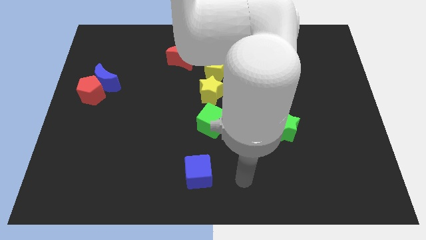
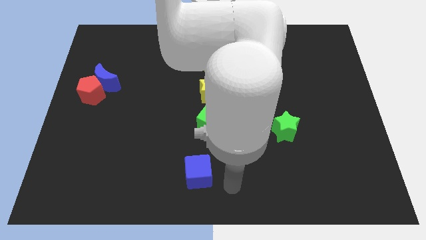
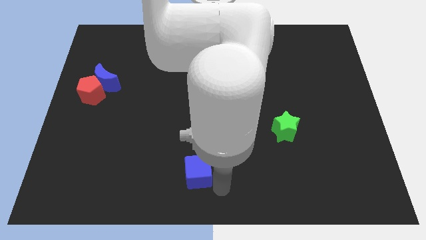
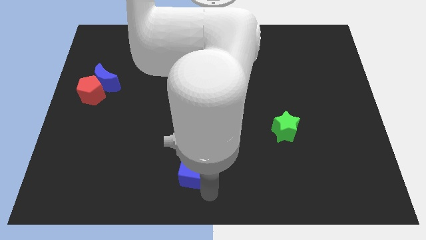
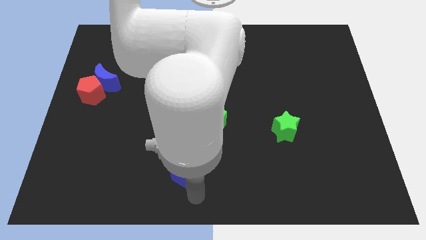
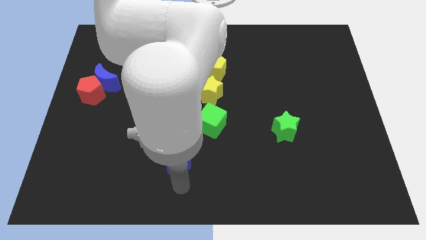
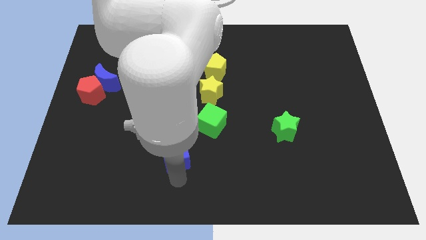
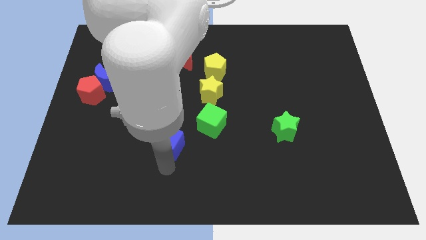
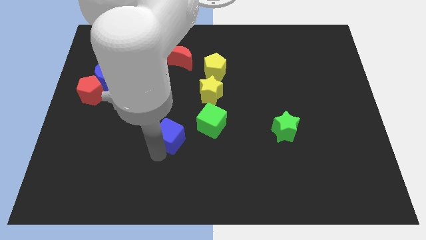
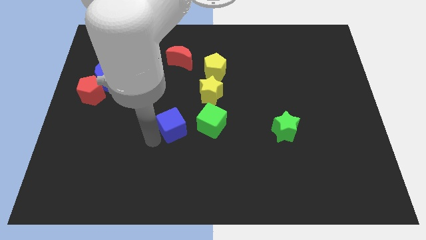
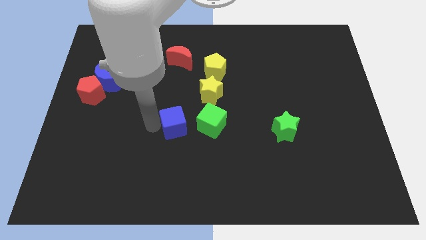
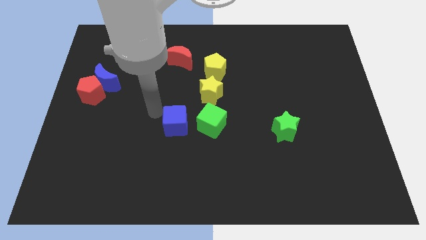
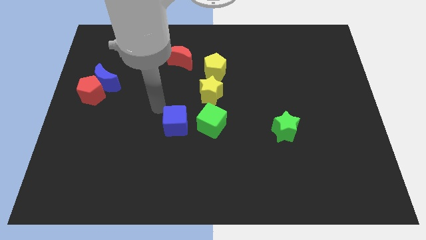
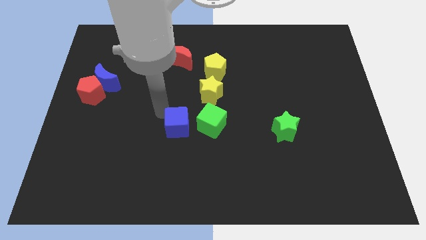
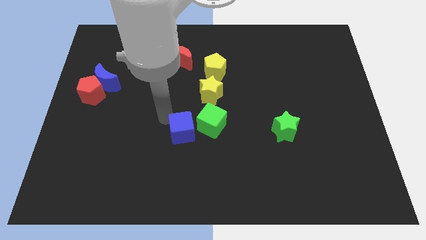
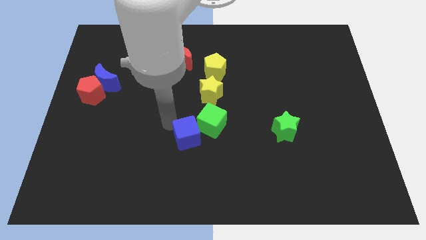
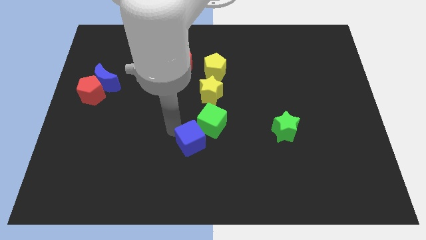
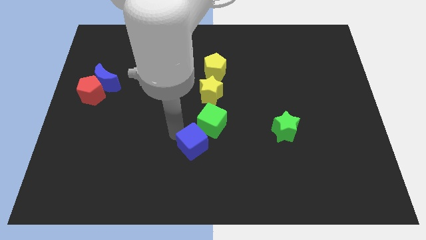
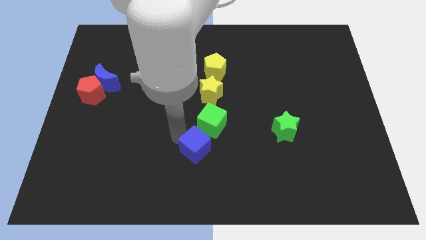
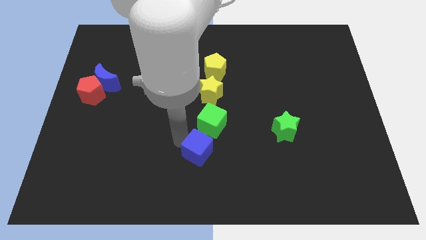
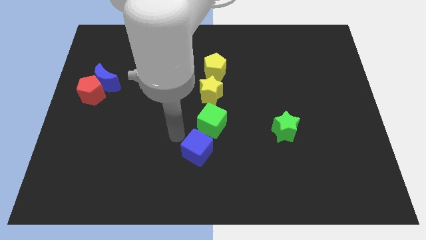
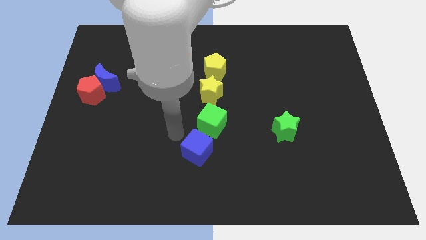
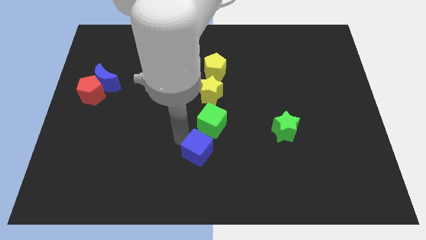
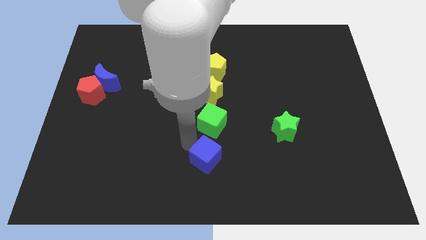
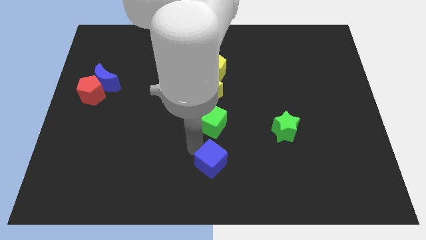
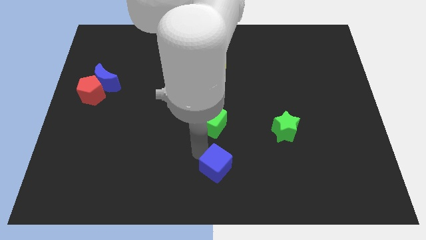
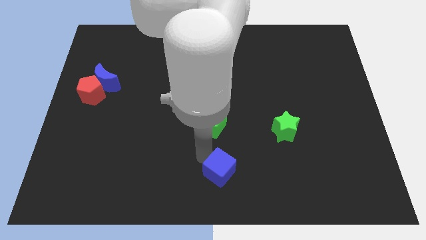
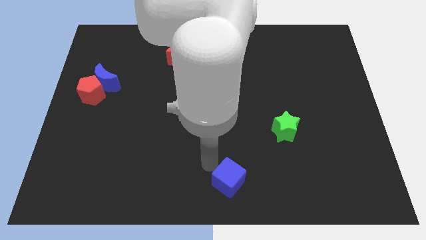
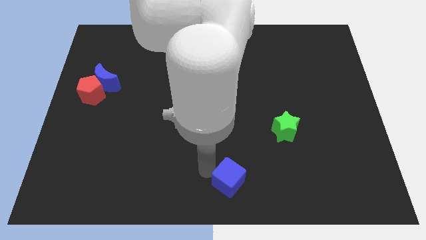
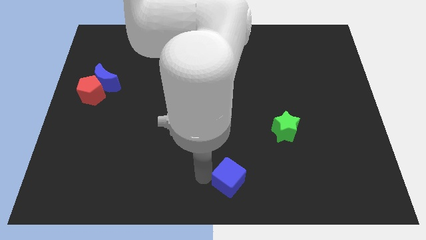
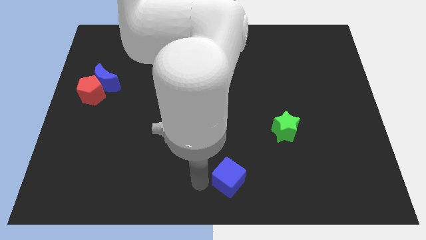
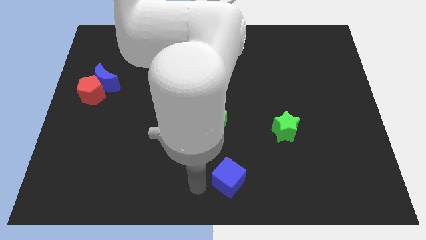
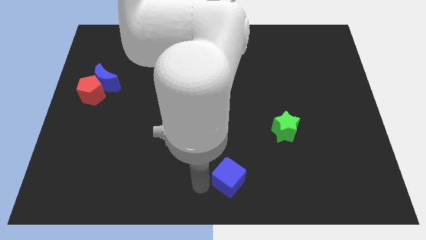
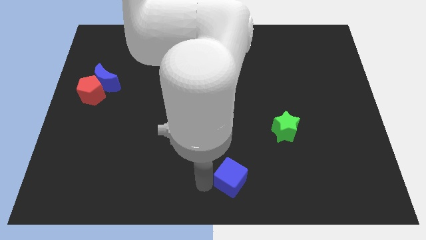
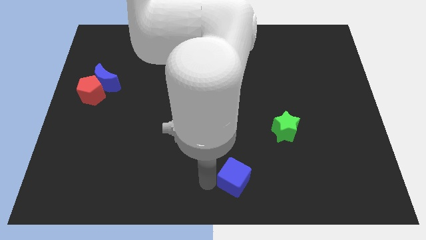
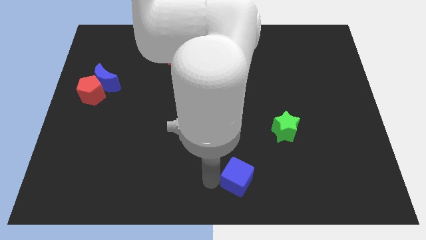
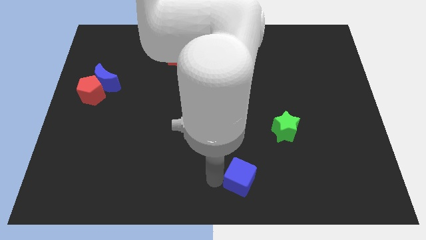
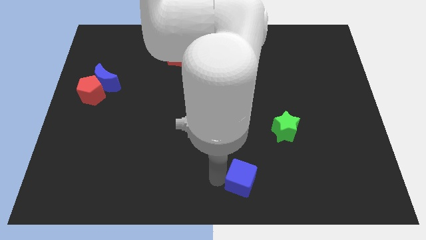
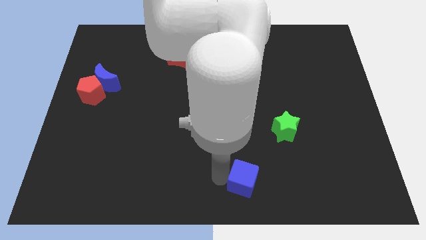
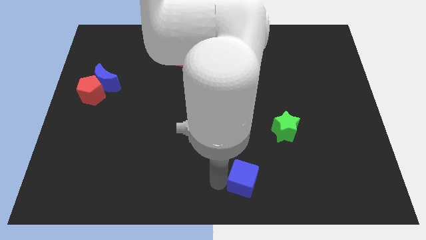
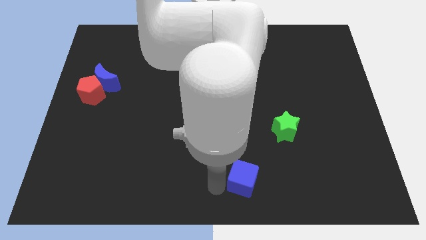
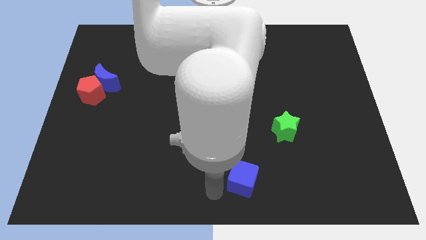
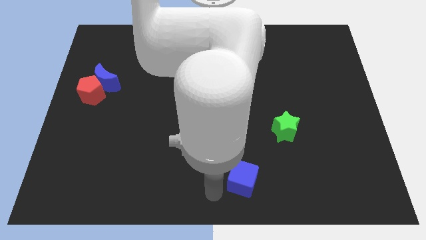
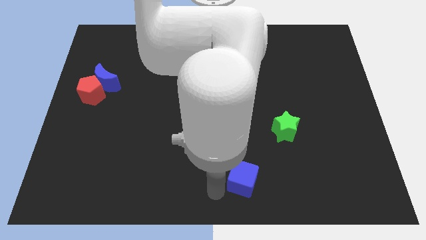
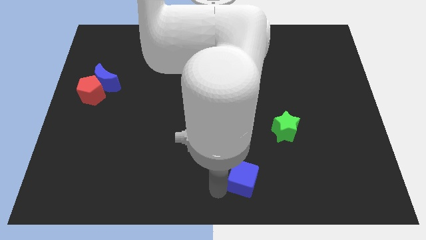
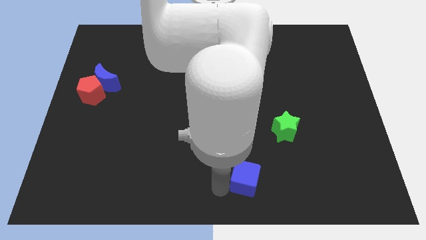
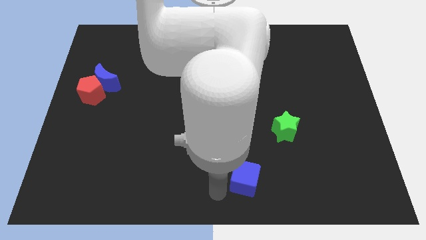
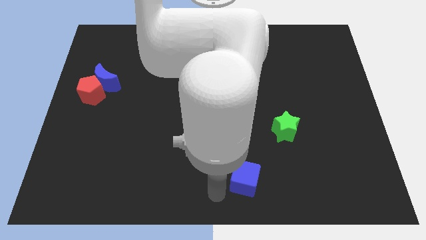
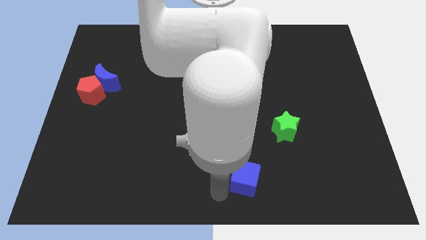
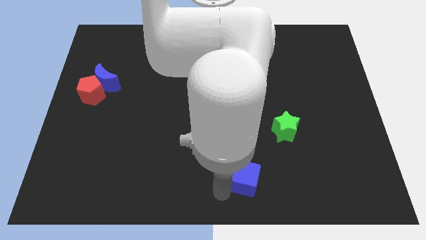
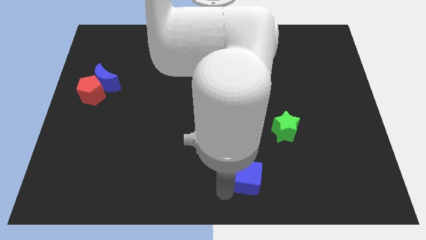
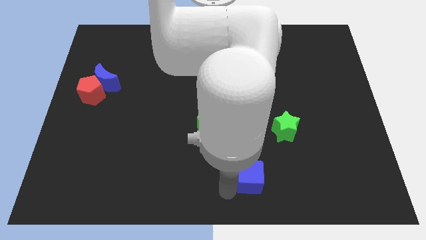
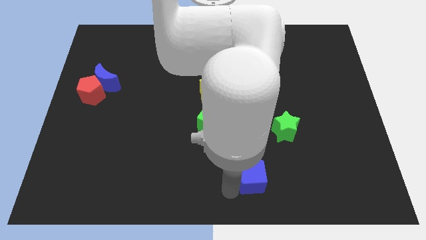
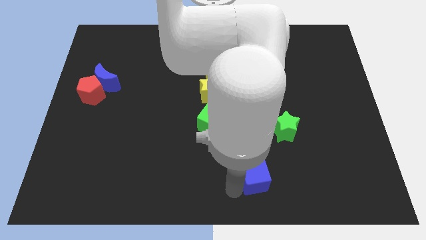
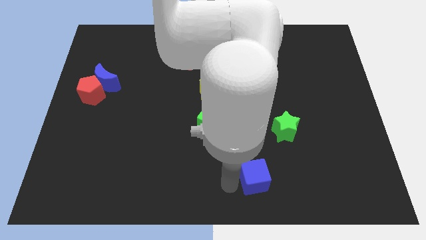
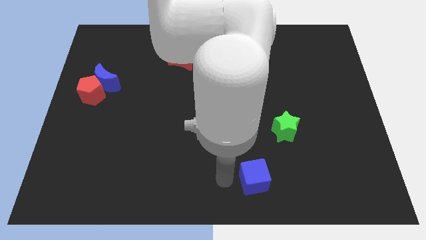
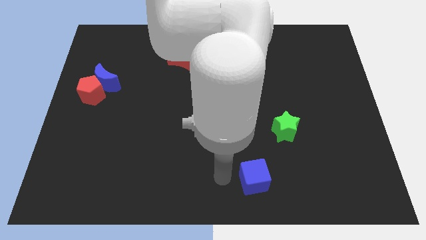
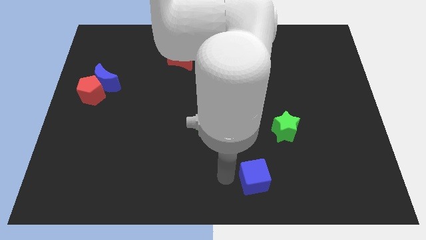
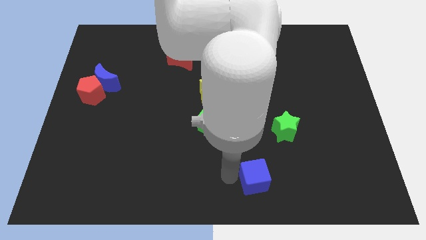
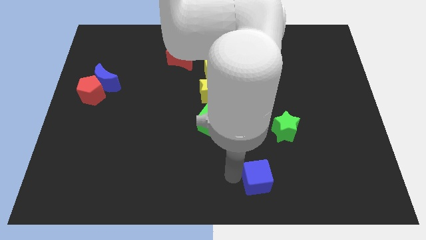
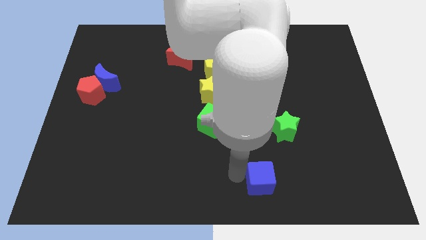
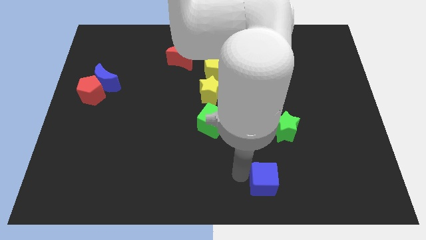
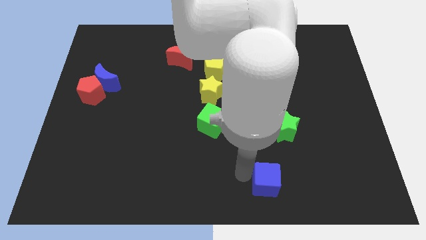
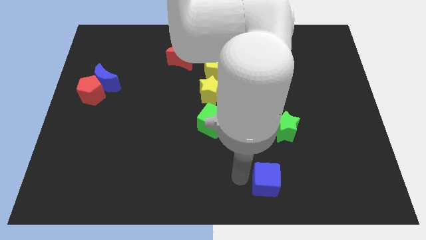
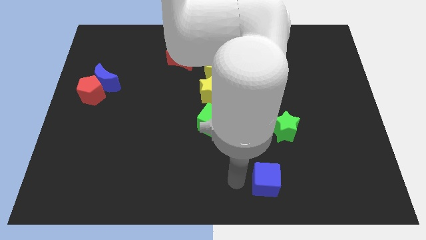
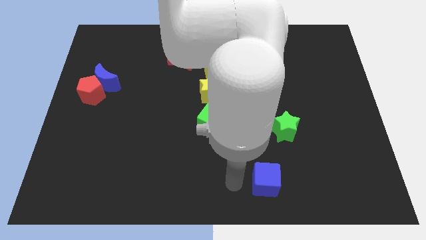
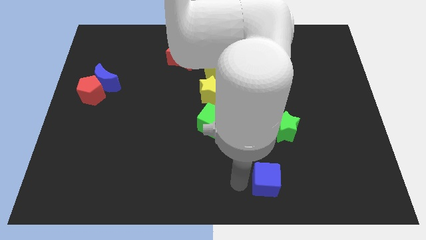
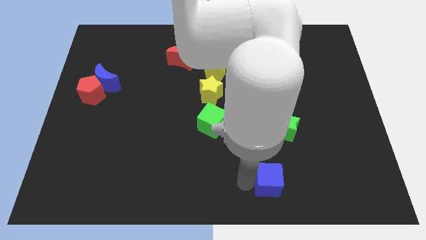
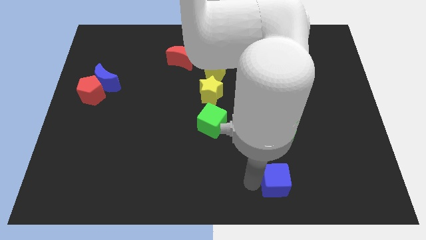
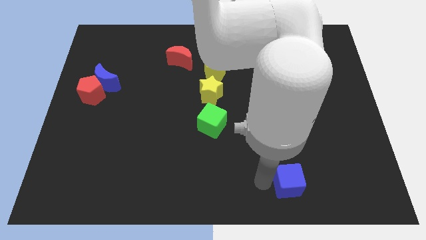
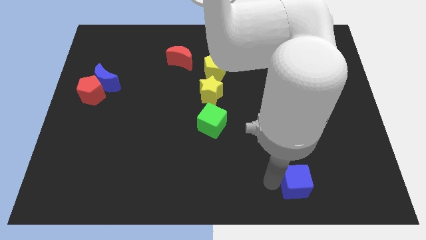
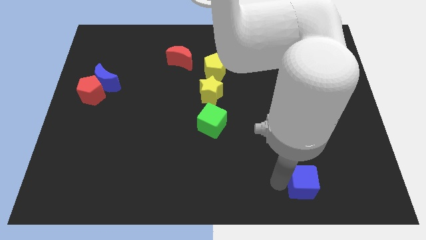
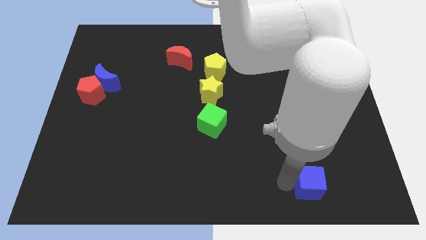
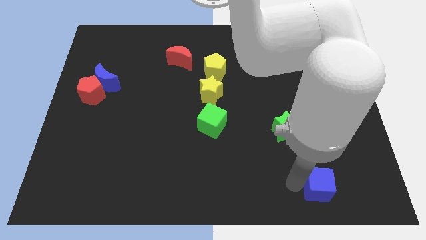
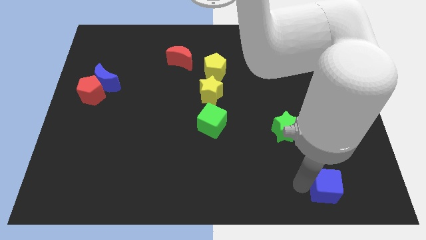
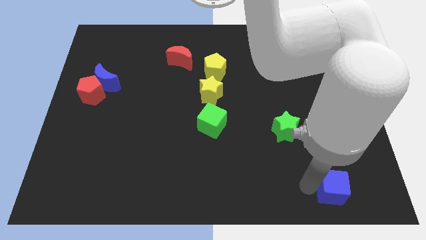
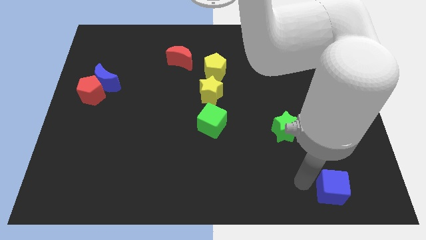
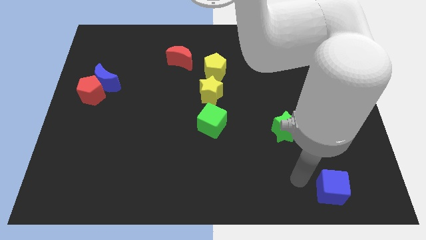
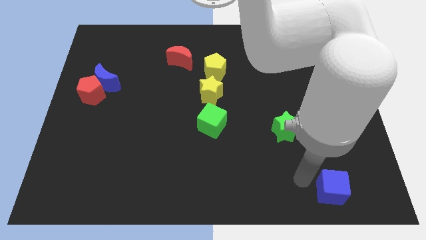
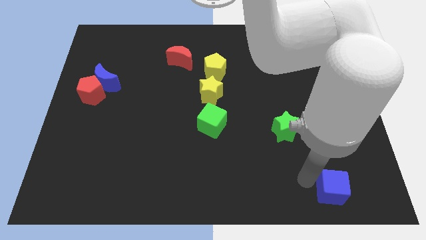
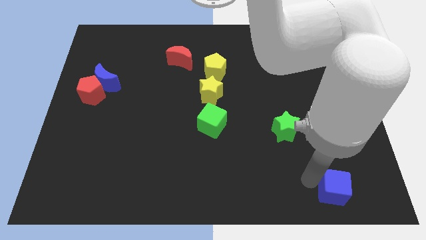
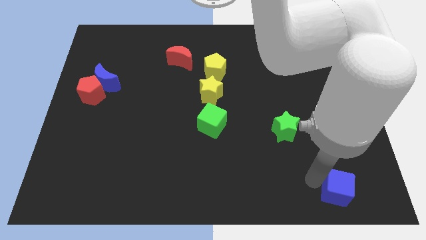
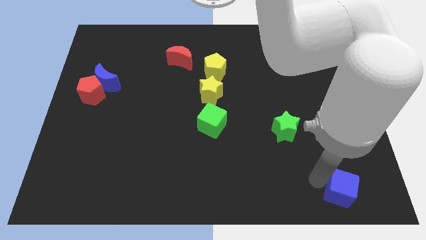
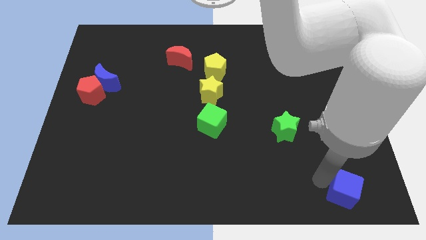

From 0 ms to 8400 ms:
slide the blue cube to the bottom right corner
